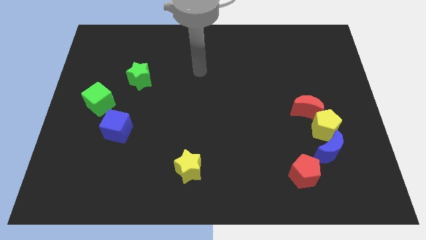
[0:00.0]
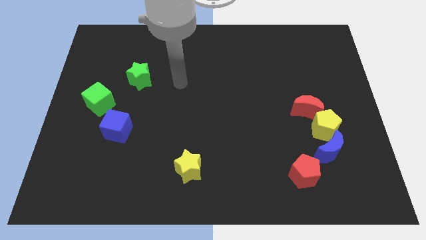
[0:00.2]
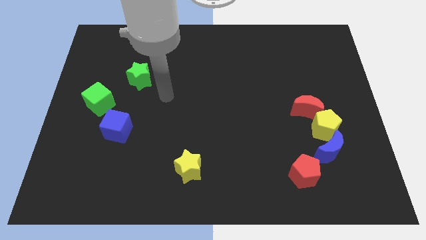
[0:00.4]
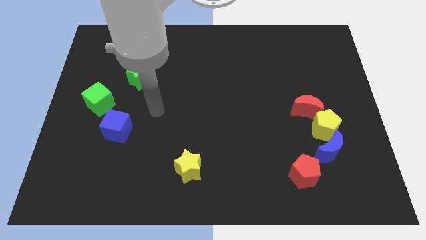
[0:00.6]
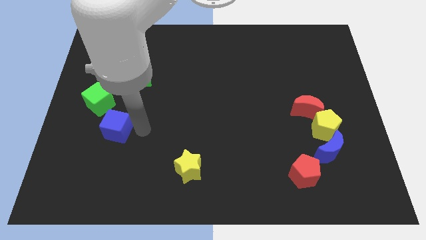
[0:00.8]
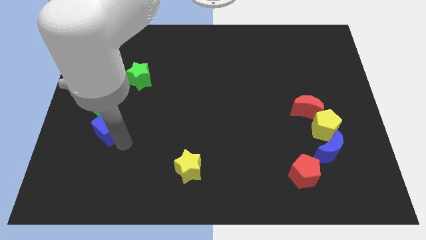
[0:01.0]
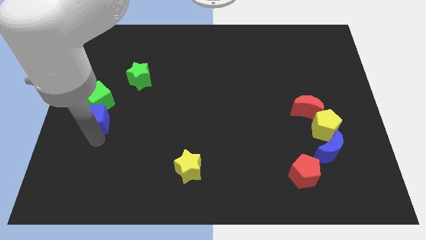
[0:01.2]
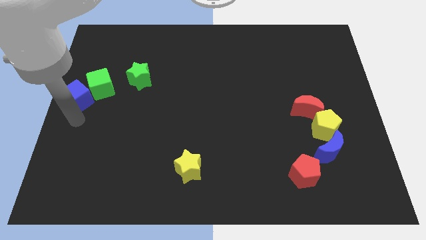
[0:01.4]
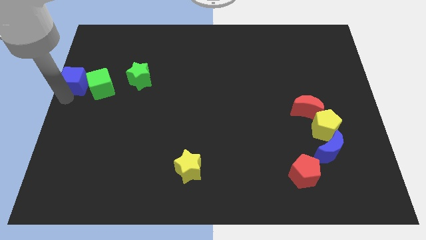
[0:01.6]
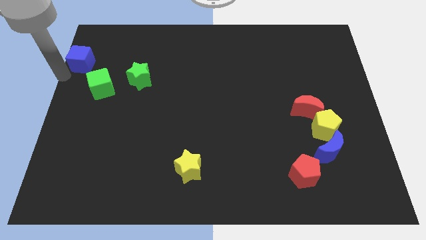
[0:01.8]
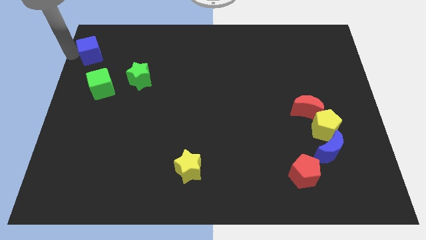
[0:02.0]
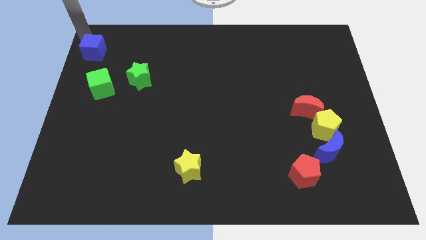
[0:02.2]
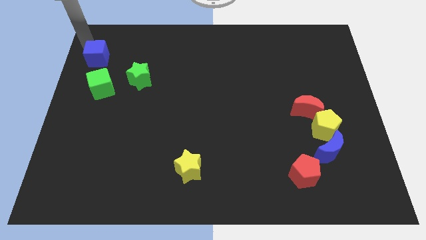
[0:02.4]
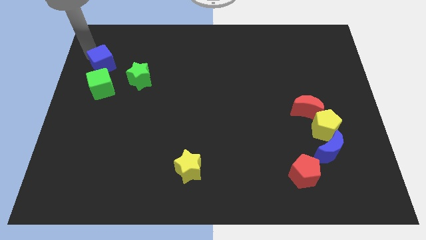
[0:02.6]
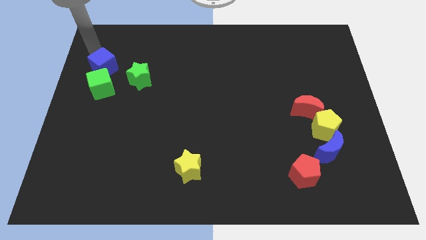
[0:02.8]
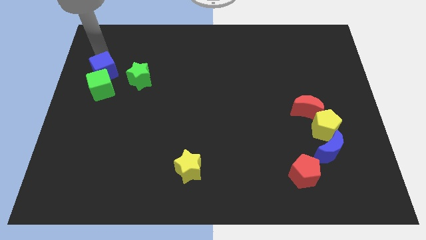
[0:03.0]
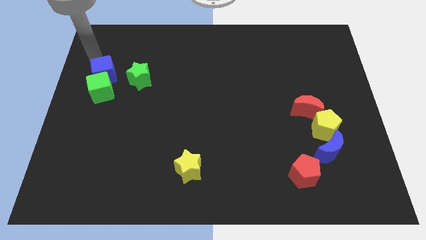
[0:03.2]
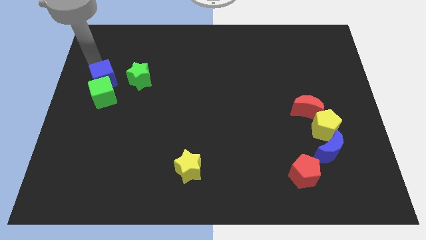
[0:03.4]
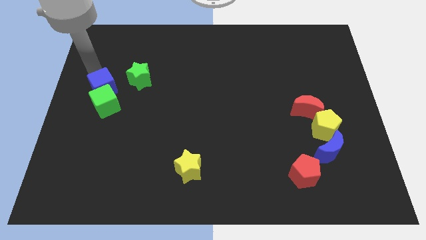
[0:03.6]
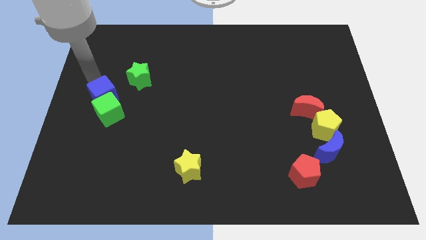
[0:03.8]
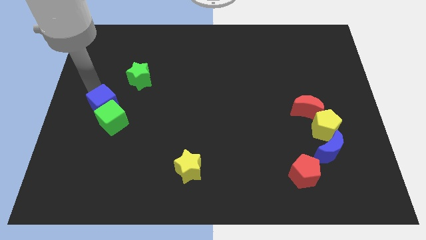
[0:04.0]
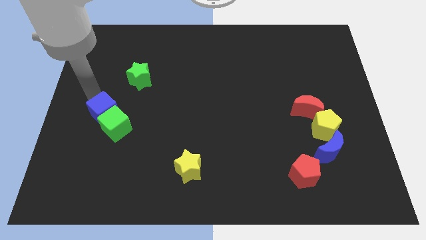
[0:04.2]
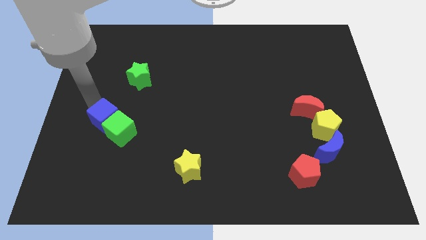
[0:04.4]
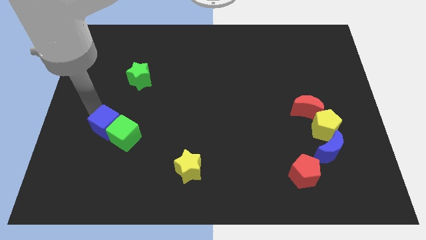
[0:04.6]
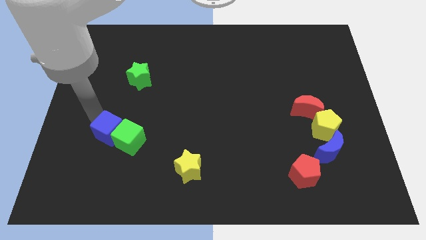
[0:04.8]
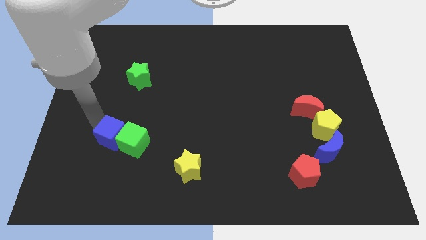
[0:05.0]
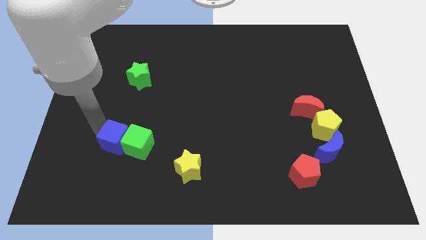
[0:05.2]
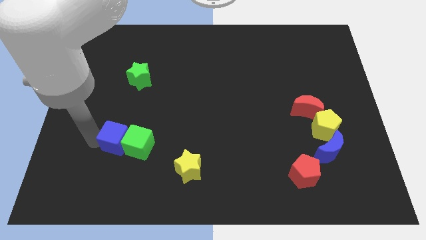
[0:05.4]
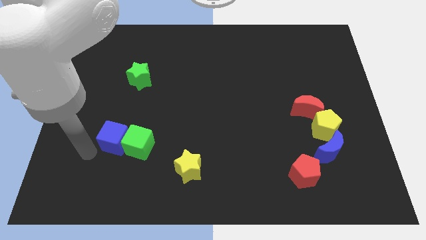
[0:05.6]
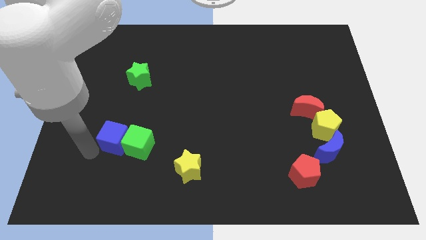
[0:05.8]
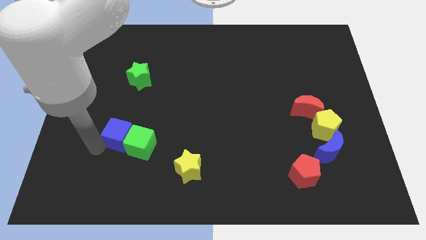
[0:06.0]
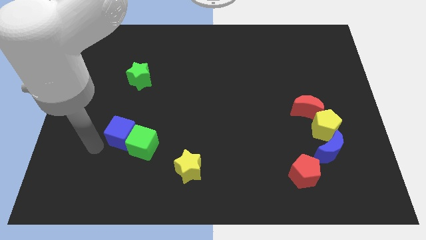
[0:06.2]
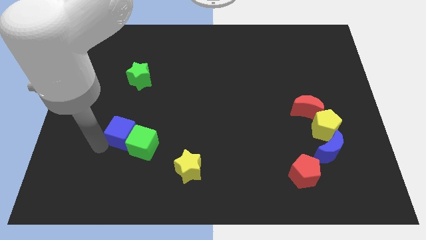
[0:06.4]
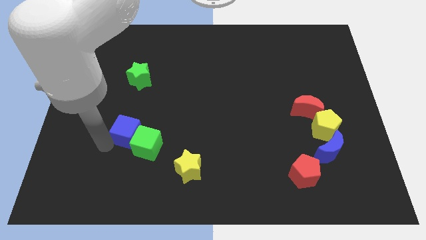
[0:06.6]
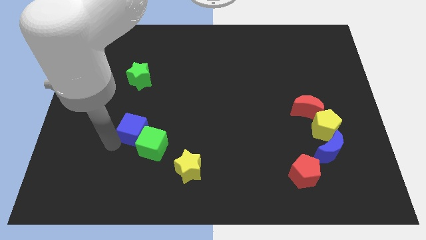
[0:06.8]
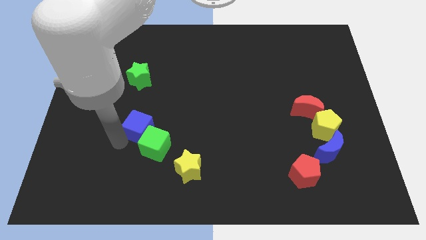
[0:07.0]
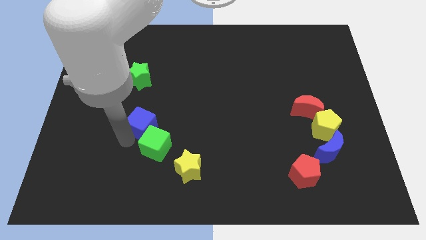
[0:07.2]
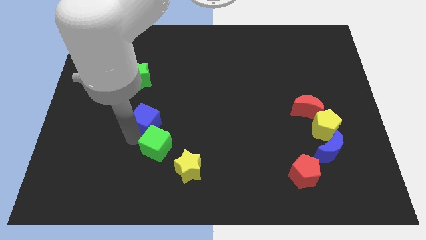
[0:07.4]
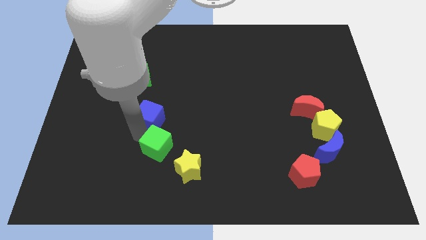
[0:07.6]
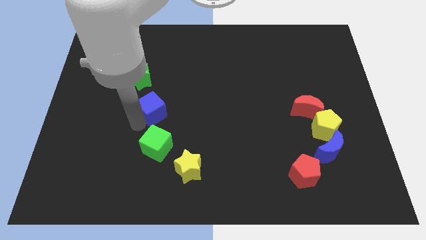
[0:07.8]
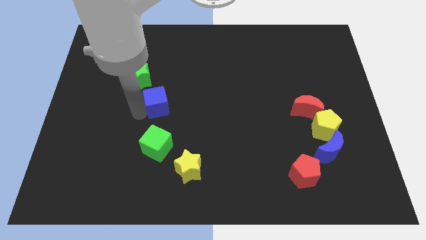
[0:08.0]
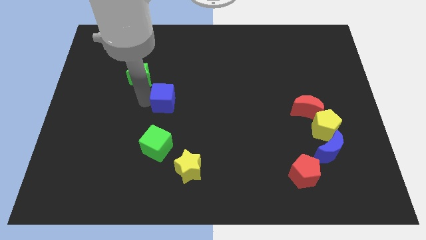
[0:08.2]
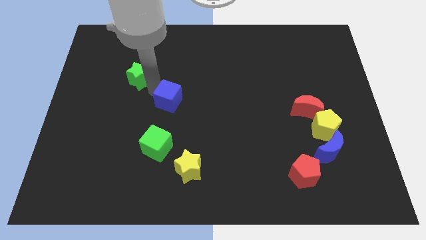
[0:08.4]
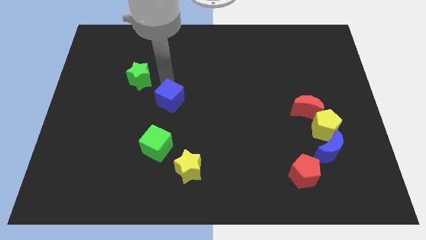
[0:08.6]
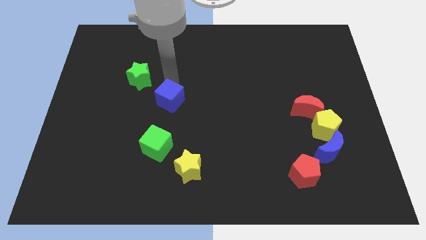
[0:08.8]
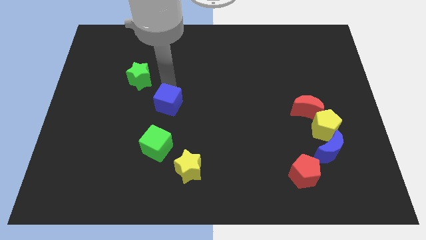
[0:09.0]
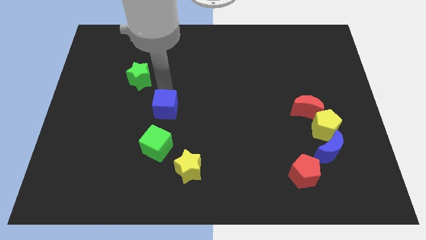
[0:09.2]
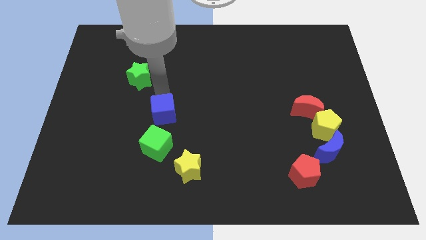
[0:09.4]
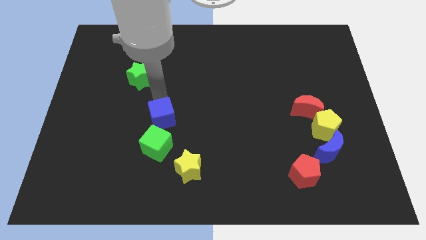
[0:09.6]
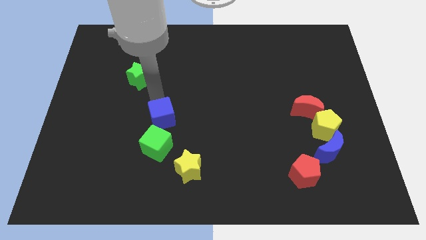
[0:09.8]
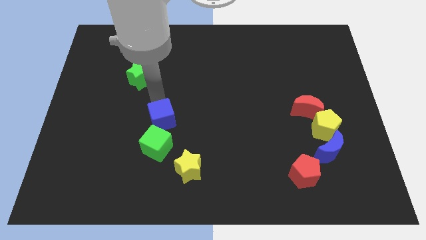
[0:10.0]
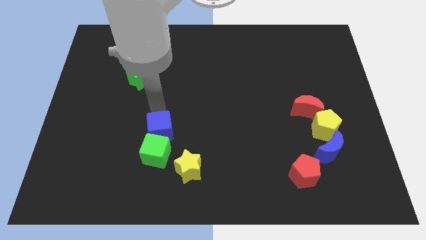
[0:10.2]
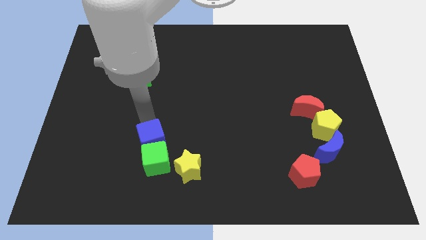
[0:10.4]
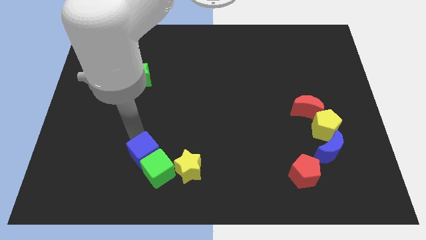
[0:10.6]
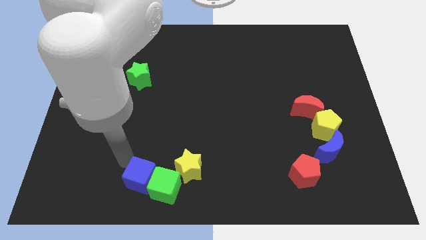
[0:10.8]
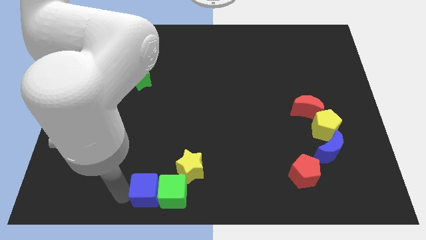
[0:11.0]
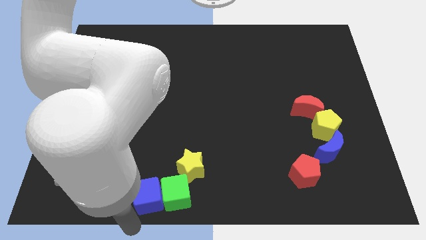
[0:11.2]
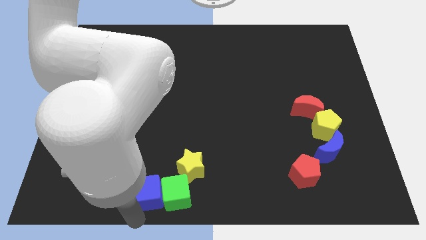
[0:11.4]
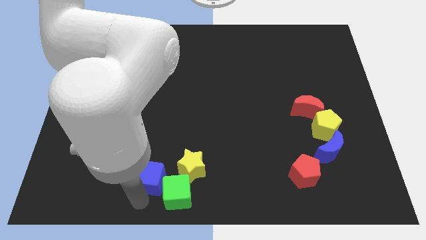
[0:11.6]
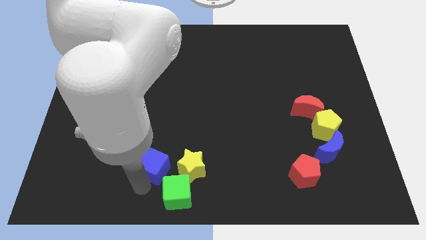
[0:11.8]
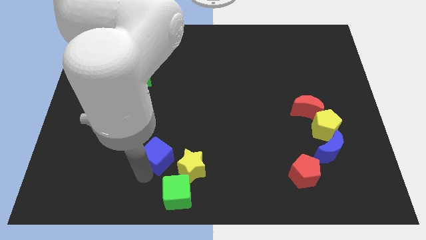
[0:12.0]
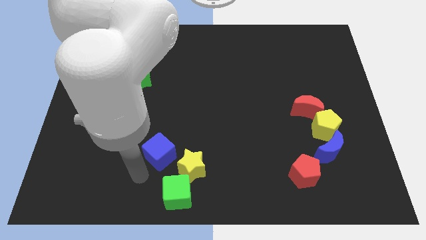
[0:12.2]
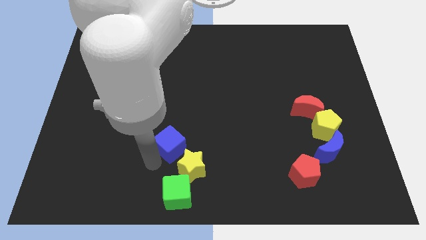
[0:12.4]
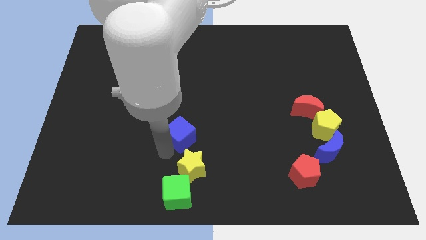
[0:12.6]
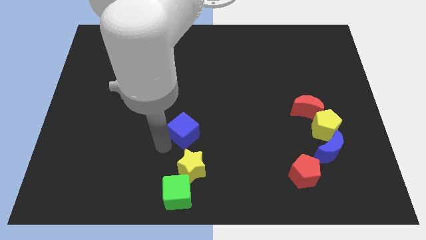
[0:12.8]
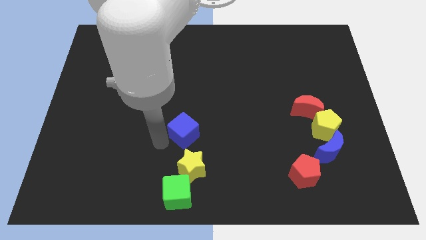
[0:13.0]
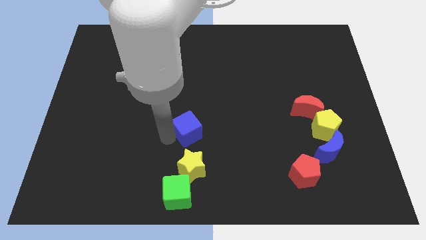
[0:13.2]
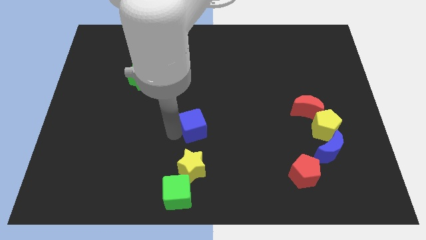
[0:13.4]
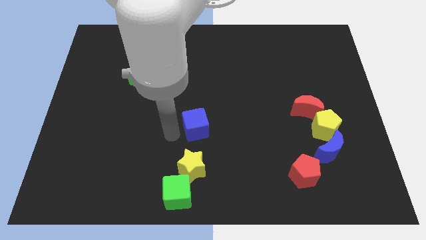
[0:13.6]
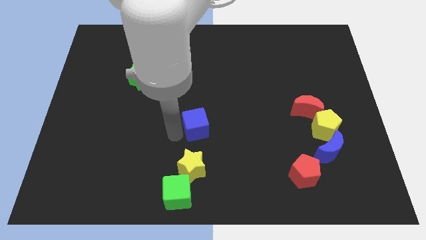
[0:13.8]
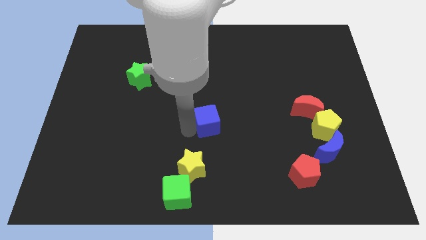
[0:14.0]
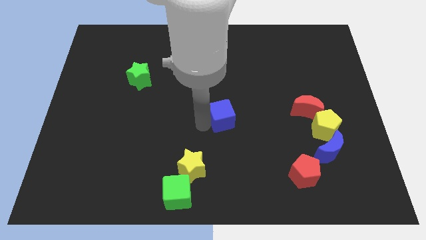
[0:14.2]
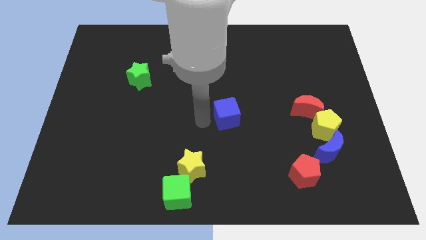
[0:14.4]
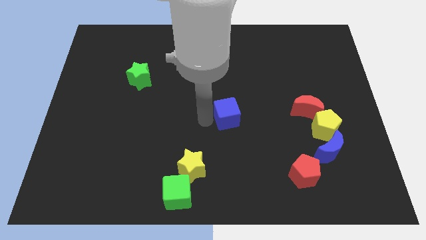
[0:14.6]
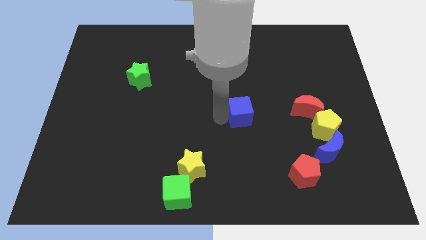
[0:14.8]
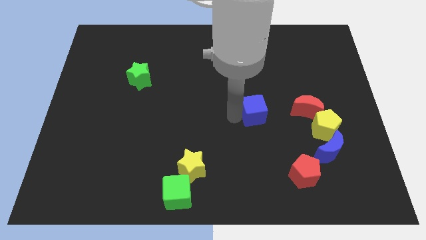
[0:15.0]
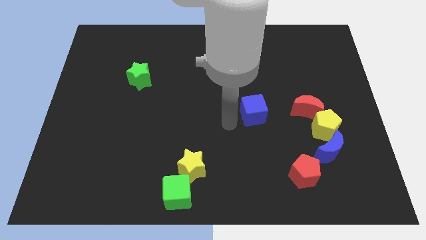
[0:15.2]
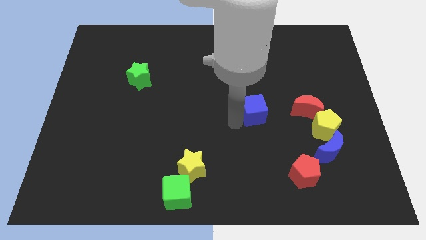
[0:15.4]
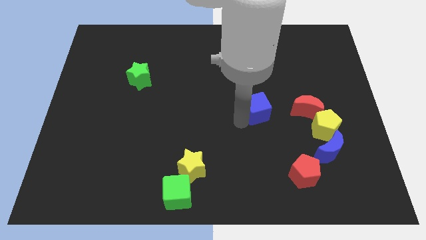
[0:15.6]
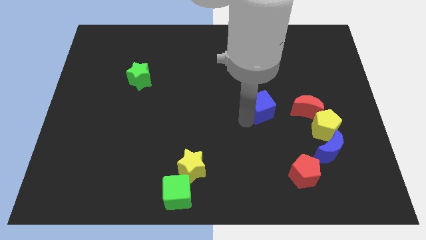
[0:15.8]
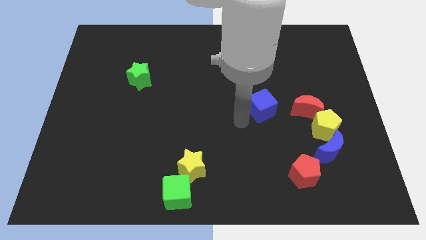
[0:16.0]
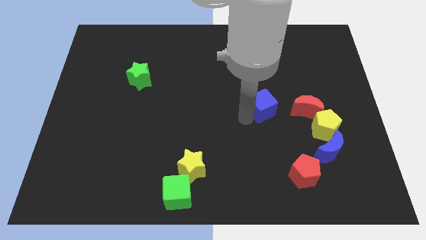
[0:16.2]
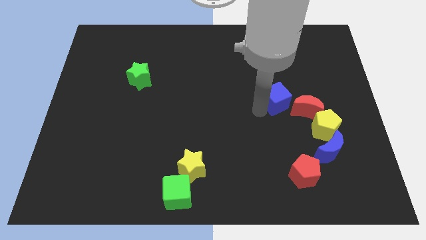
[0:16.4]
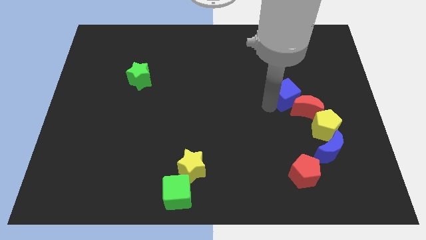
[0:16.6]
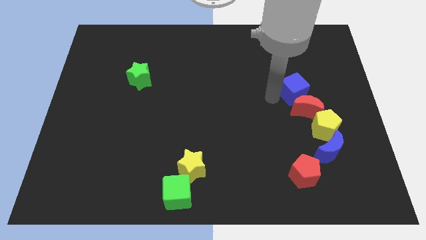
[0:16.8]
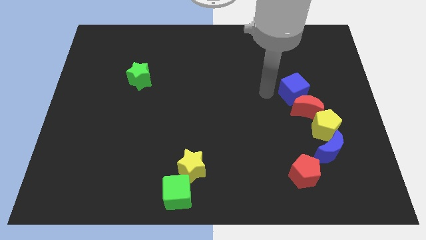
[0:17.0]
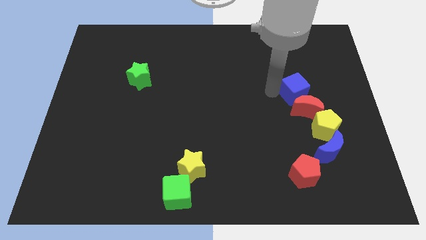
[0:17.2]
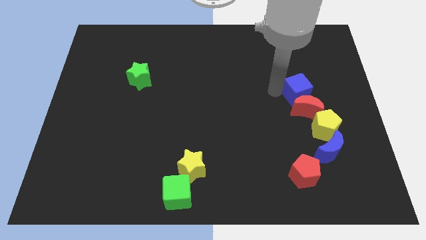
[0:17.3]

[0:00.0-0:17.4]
push the blue cube to the top of the yellow pentagon
